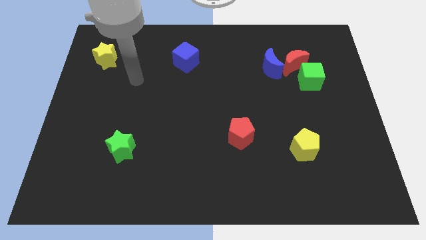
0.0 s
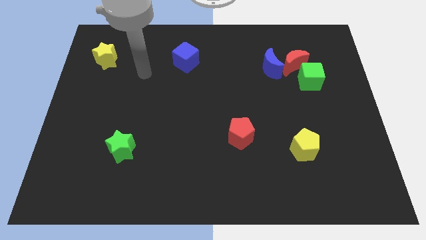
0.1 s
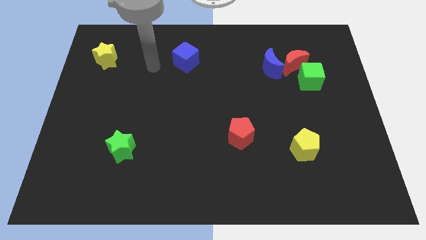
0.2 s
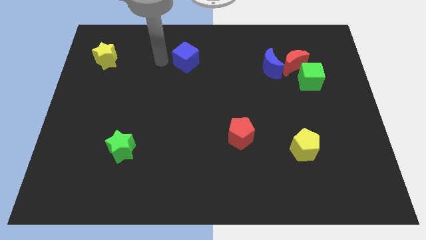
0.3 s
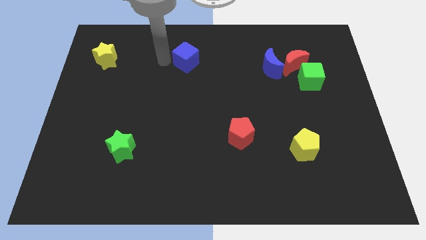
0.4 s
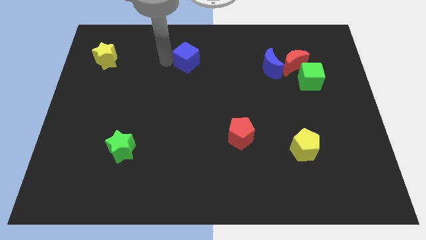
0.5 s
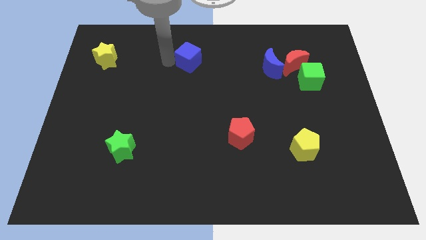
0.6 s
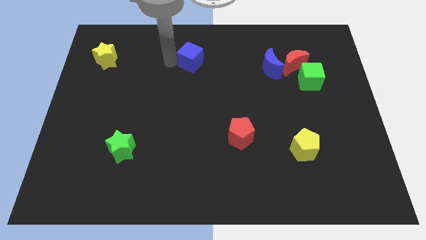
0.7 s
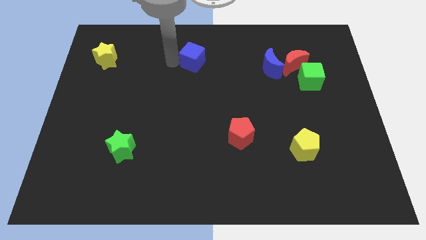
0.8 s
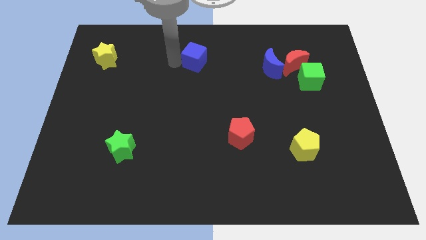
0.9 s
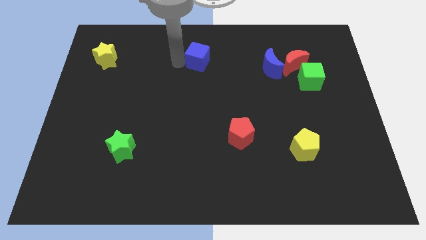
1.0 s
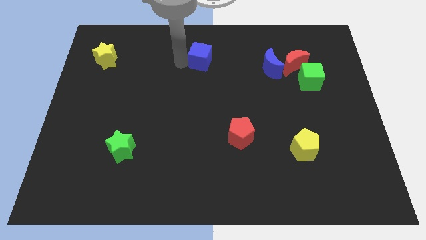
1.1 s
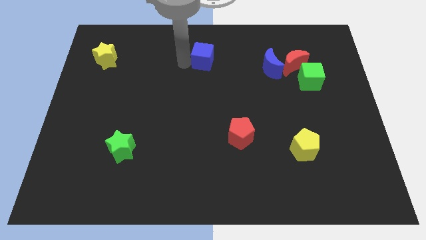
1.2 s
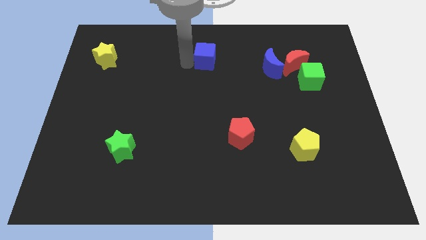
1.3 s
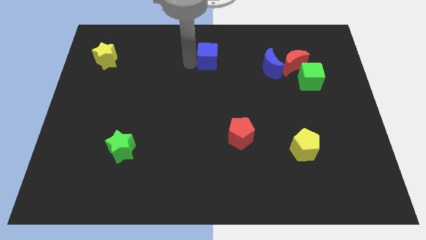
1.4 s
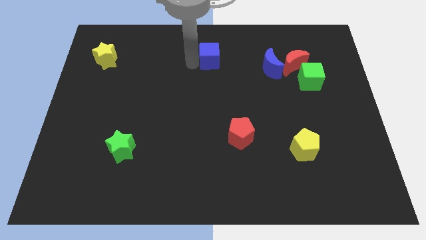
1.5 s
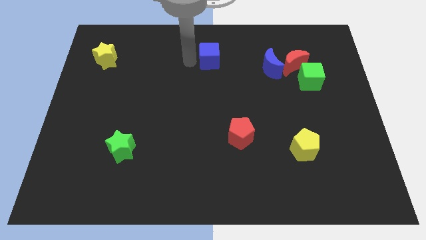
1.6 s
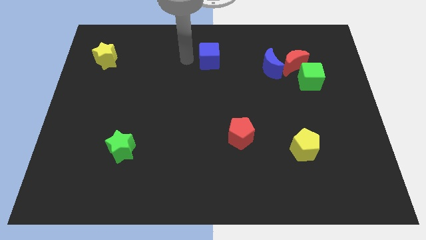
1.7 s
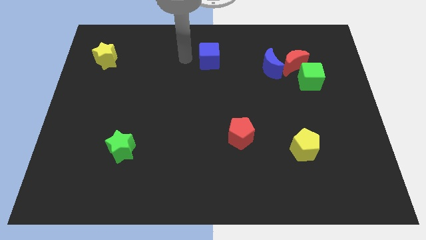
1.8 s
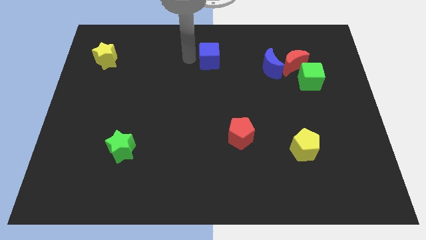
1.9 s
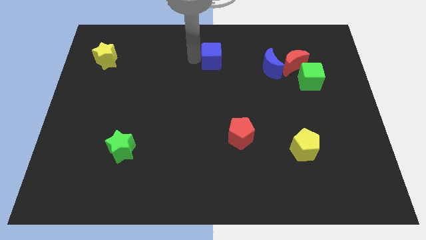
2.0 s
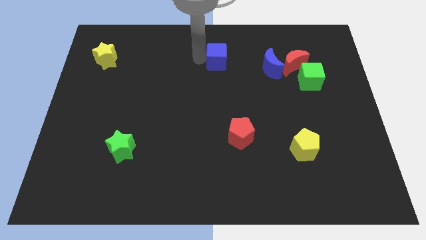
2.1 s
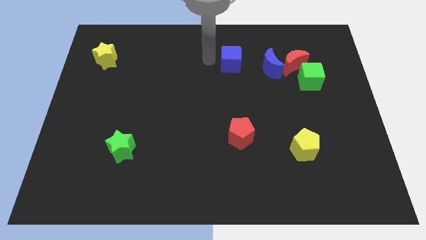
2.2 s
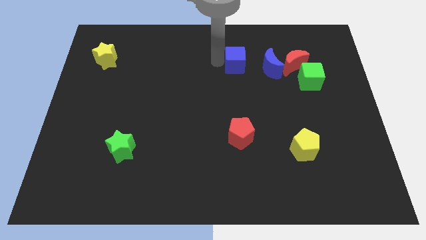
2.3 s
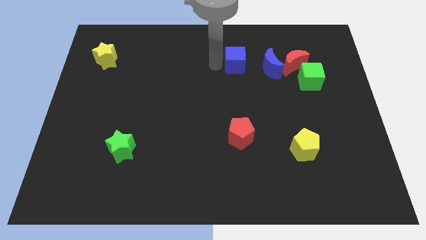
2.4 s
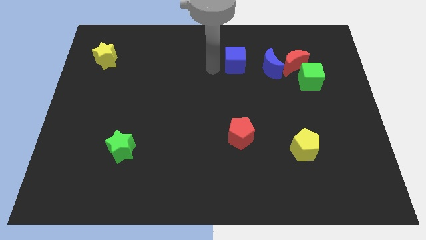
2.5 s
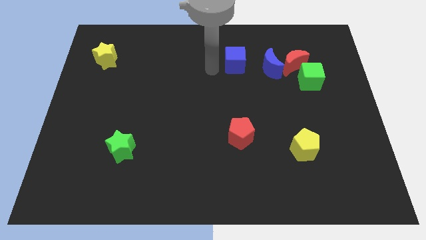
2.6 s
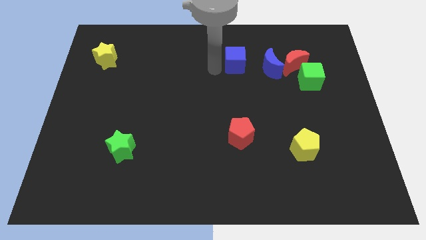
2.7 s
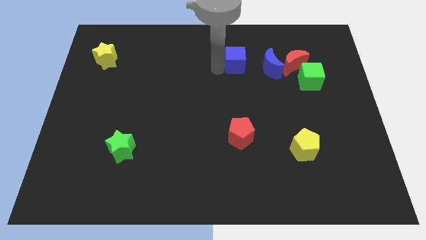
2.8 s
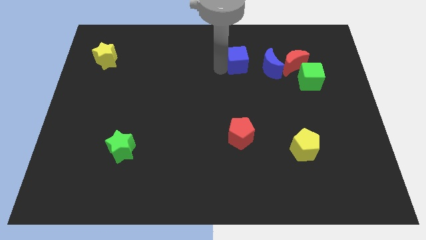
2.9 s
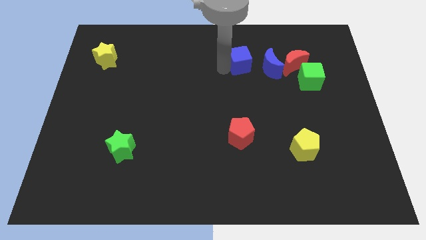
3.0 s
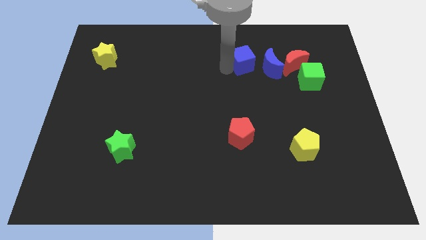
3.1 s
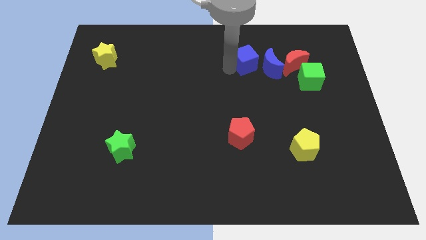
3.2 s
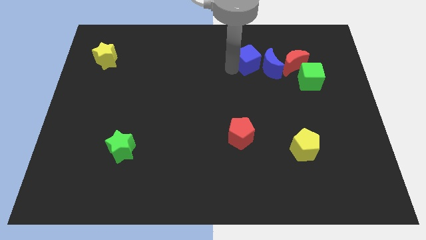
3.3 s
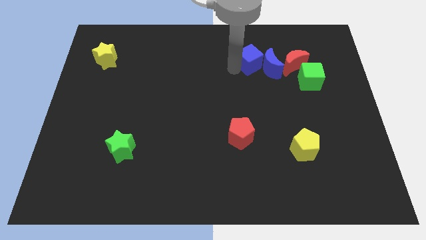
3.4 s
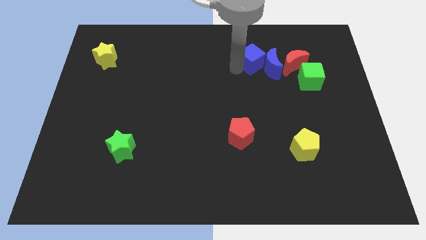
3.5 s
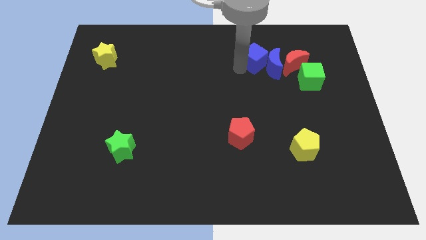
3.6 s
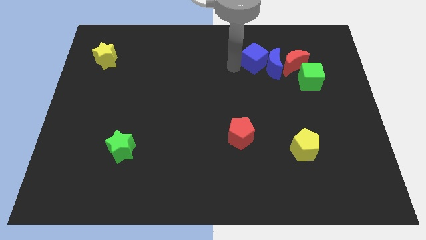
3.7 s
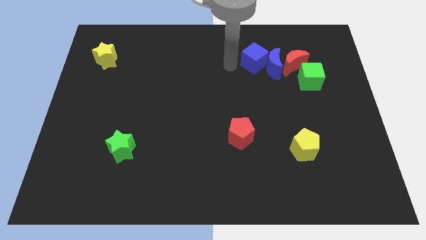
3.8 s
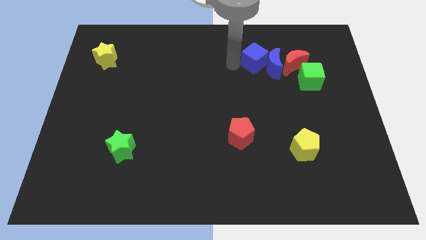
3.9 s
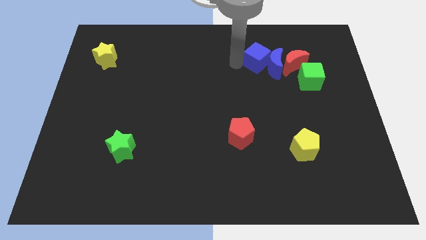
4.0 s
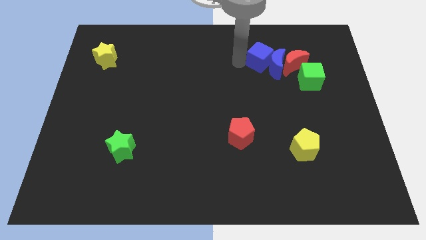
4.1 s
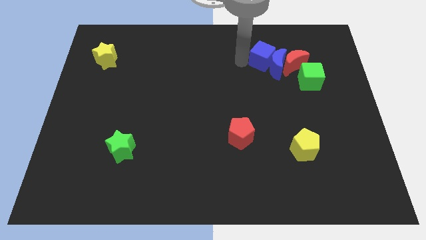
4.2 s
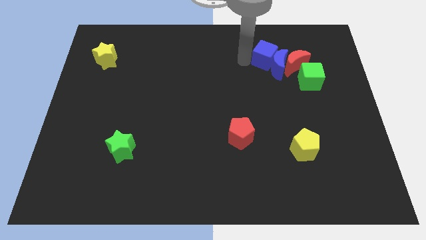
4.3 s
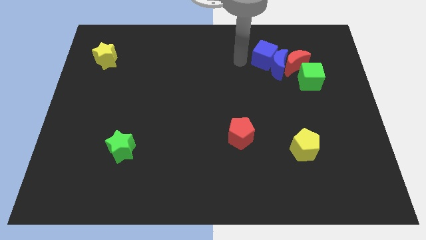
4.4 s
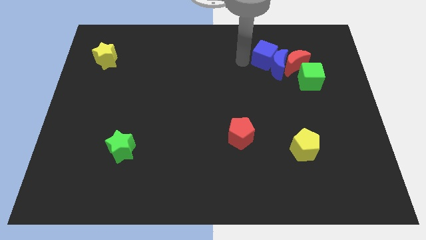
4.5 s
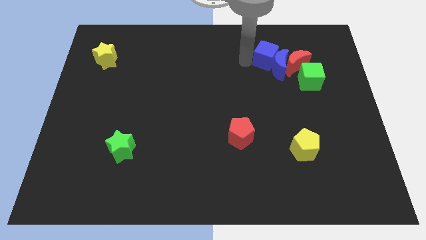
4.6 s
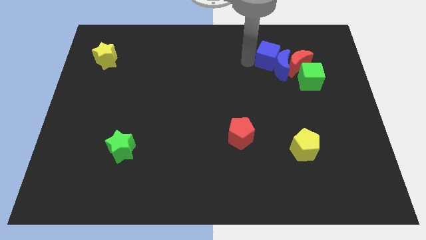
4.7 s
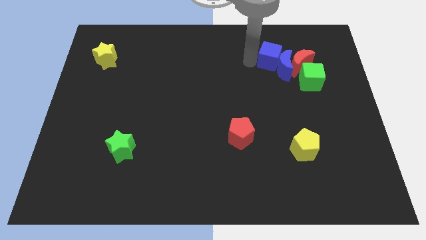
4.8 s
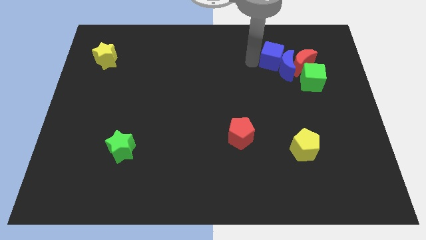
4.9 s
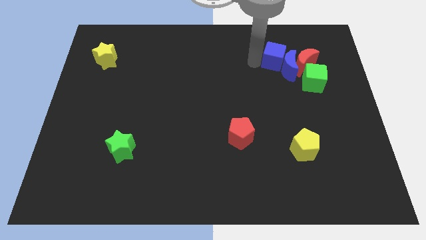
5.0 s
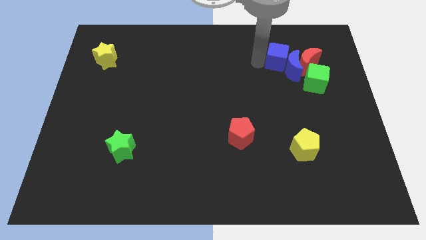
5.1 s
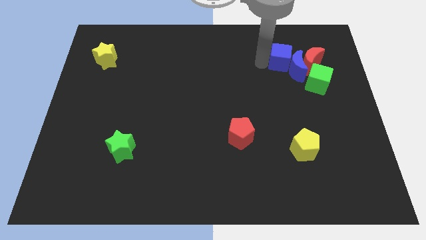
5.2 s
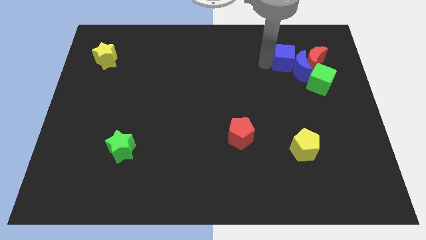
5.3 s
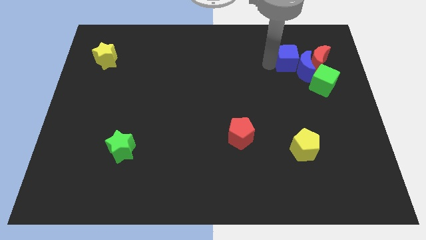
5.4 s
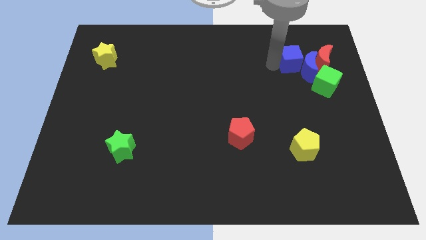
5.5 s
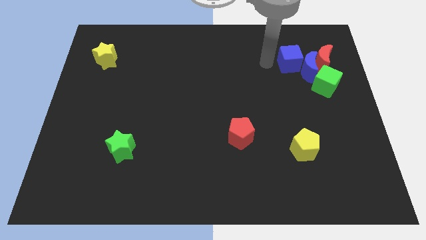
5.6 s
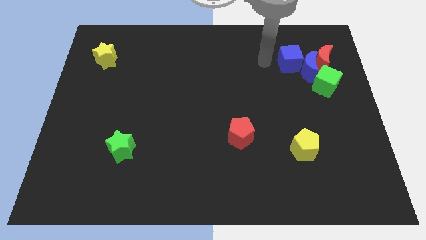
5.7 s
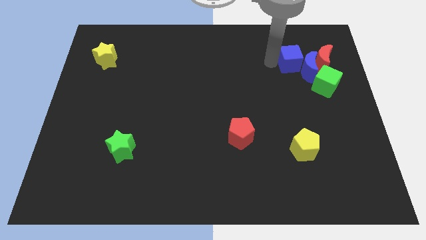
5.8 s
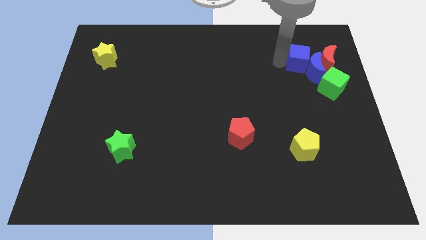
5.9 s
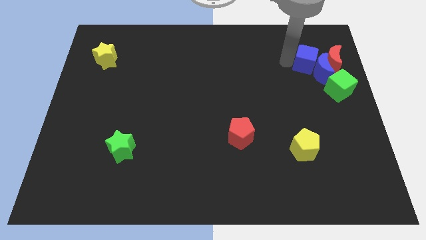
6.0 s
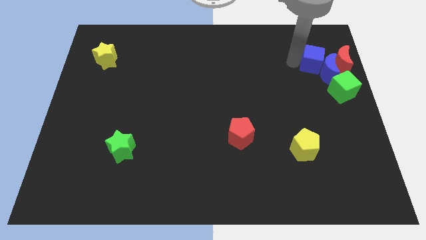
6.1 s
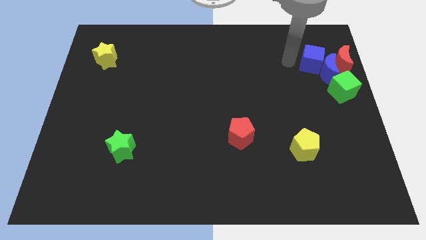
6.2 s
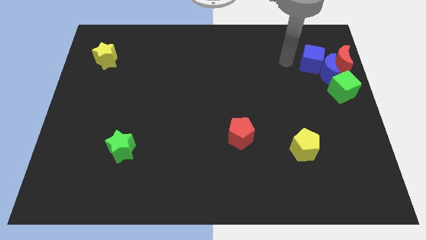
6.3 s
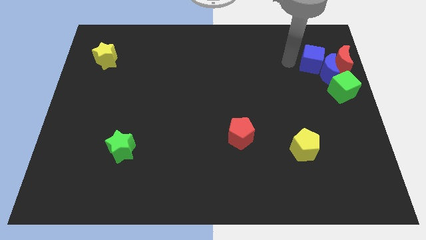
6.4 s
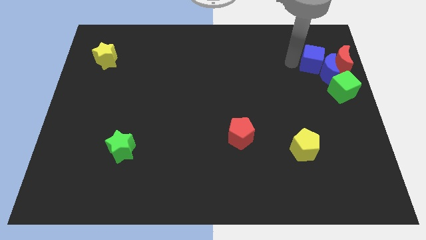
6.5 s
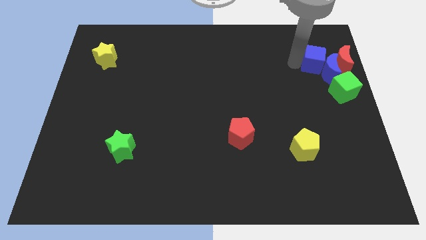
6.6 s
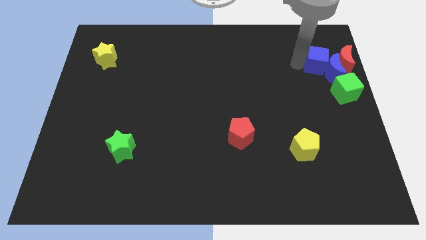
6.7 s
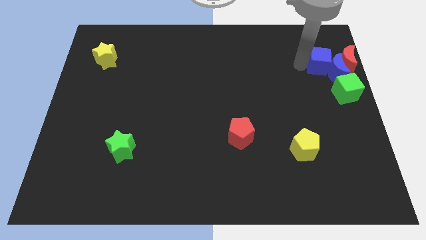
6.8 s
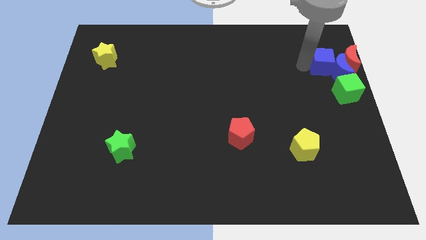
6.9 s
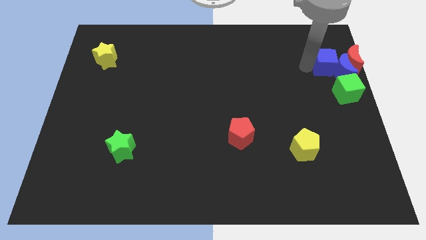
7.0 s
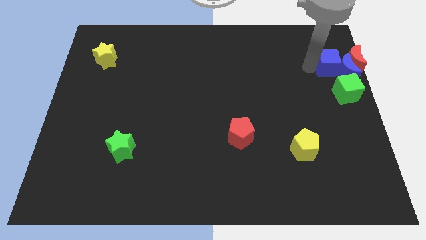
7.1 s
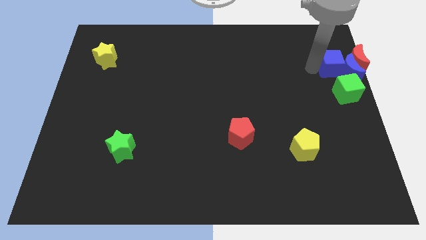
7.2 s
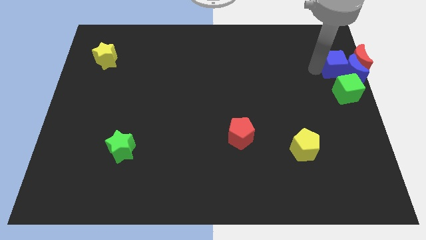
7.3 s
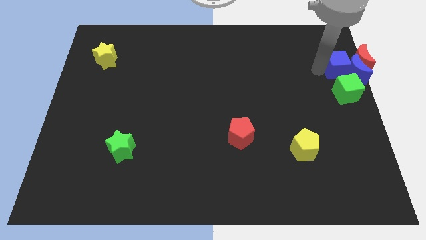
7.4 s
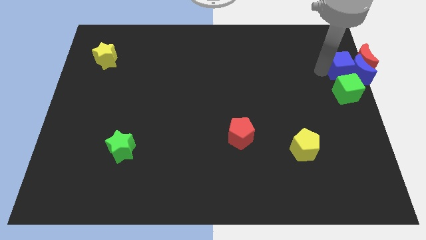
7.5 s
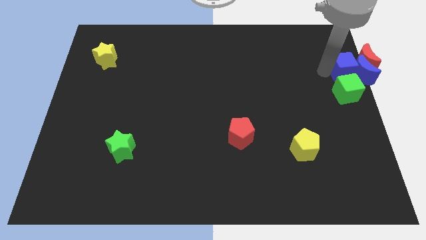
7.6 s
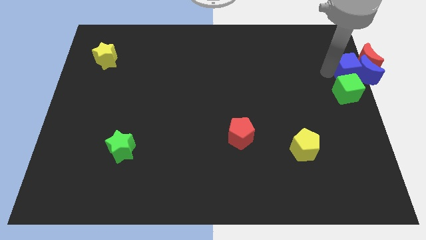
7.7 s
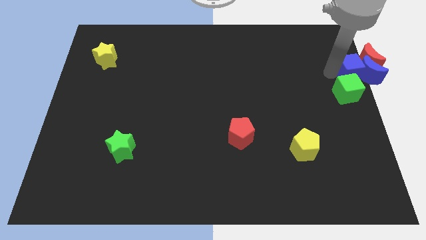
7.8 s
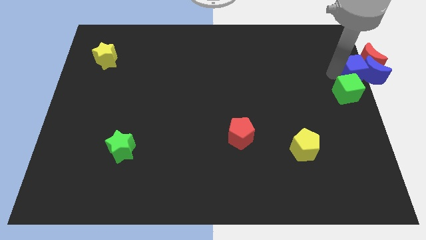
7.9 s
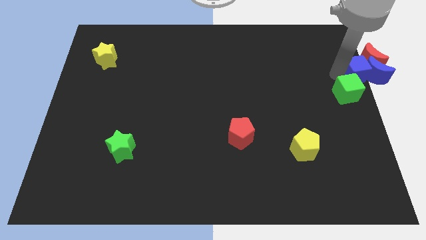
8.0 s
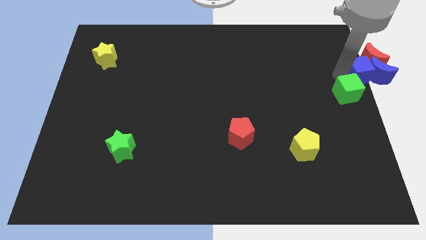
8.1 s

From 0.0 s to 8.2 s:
move the blue cube next to the red moon
